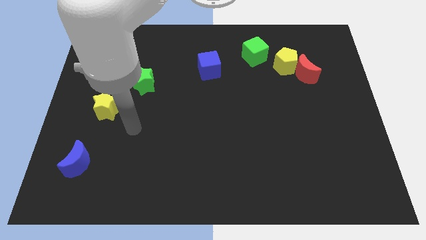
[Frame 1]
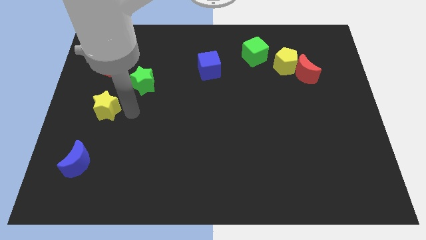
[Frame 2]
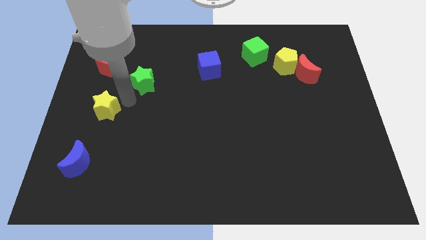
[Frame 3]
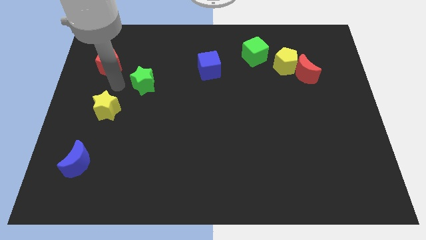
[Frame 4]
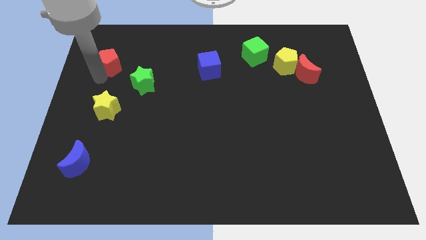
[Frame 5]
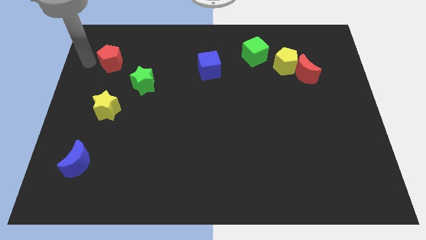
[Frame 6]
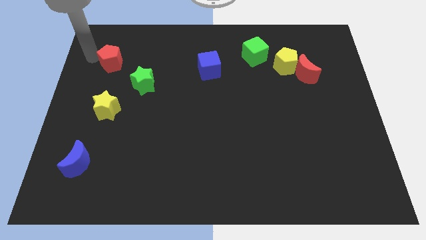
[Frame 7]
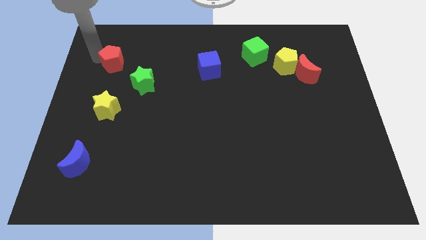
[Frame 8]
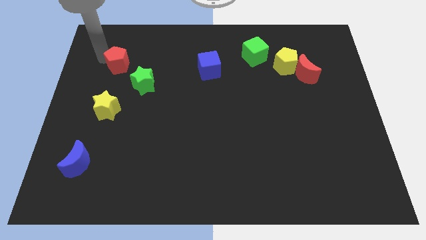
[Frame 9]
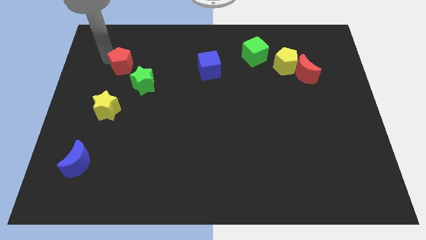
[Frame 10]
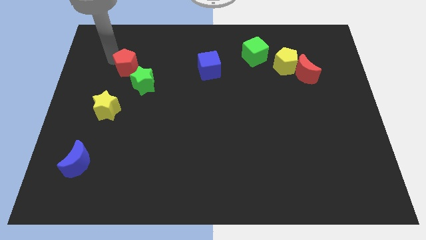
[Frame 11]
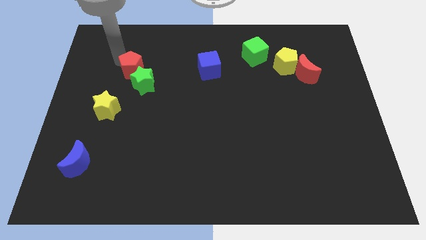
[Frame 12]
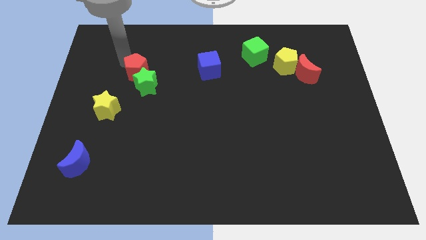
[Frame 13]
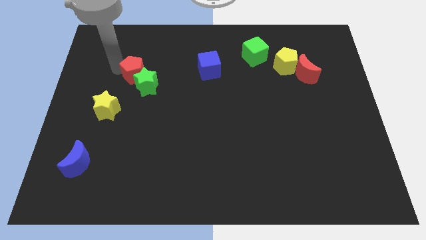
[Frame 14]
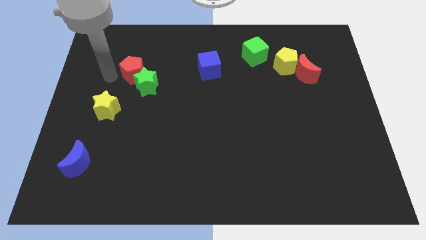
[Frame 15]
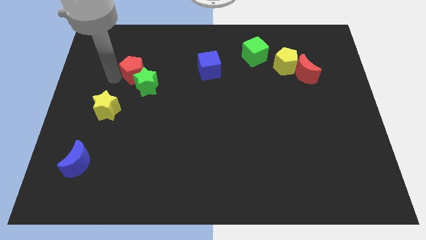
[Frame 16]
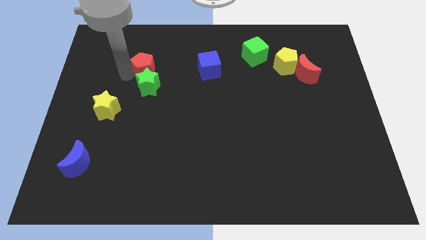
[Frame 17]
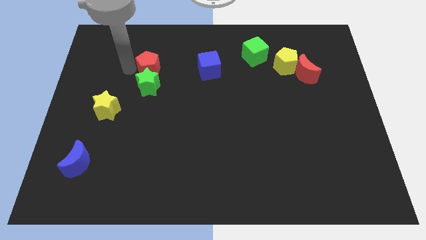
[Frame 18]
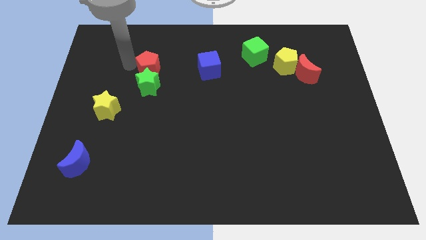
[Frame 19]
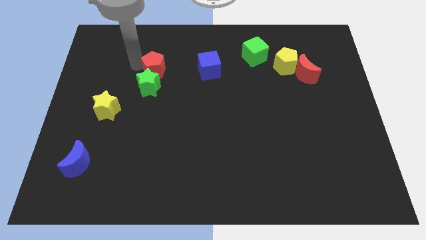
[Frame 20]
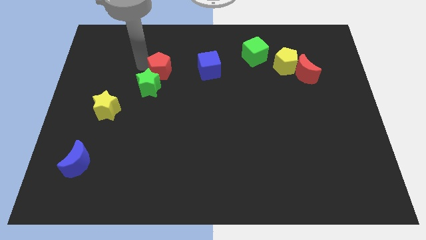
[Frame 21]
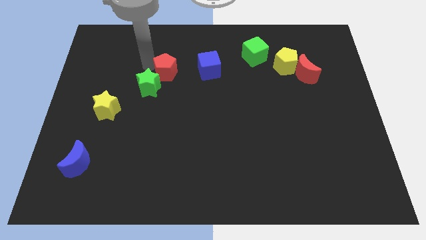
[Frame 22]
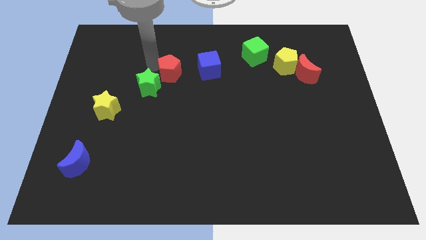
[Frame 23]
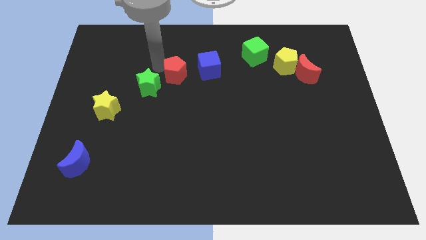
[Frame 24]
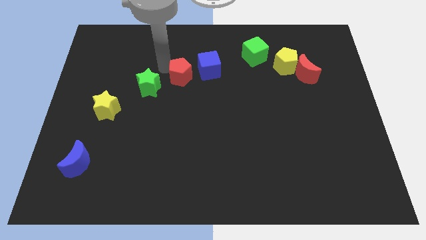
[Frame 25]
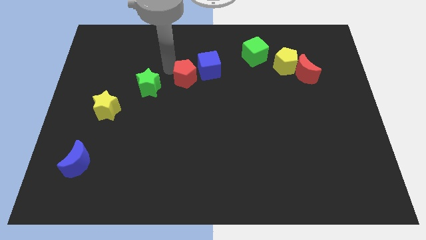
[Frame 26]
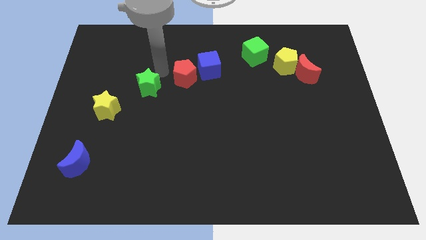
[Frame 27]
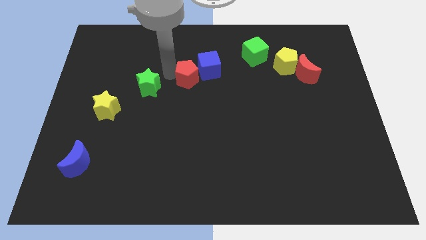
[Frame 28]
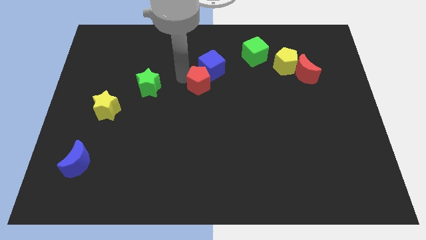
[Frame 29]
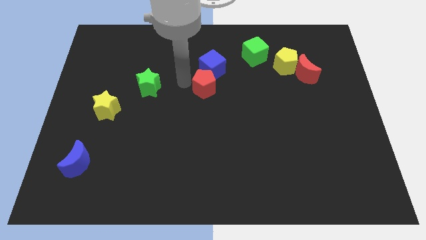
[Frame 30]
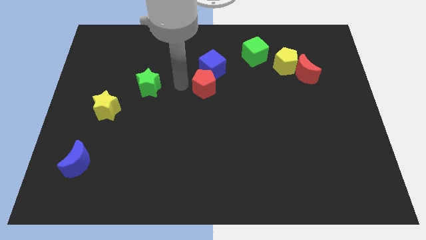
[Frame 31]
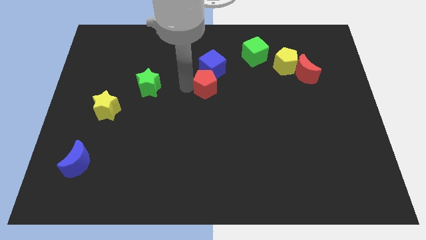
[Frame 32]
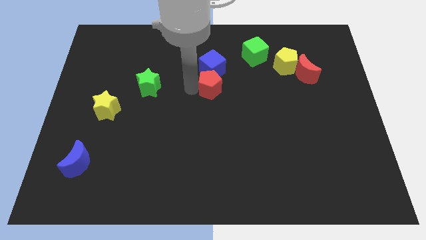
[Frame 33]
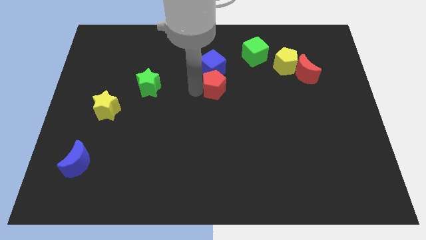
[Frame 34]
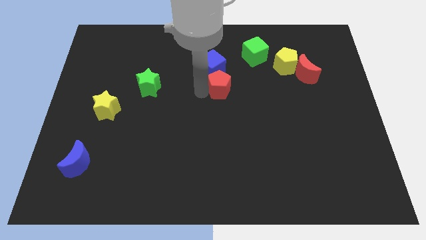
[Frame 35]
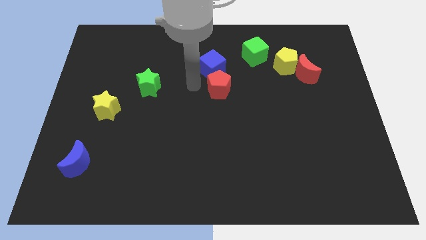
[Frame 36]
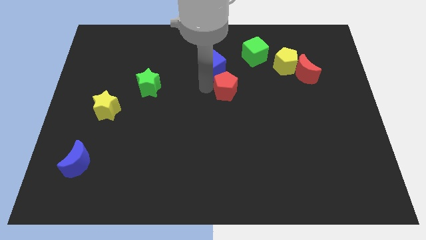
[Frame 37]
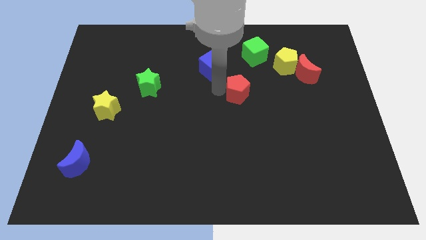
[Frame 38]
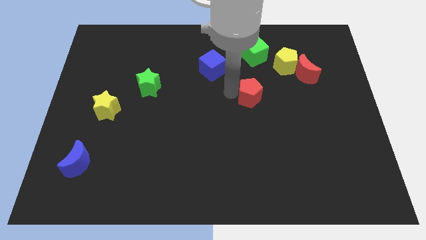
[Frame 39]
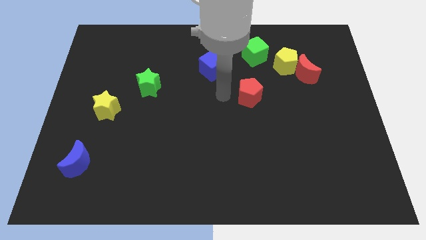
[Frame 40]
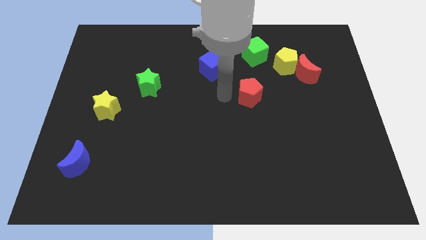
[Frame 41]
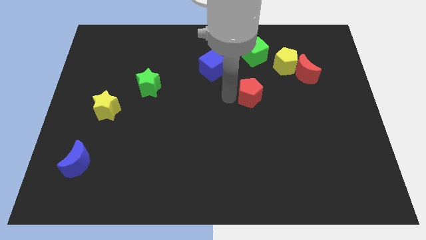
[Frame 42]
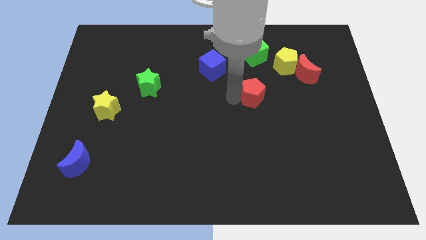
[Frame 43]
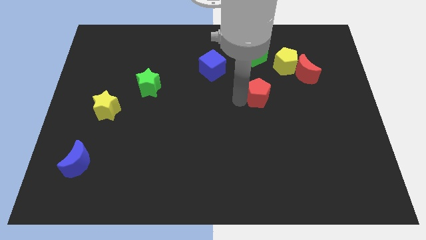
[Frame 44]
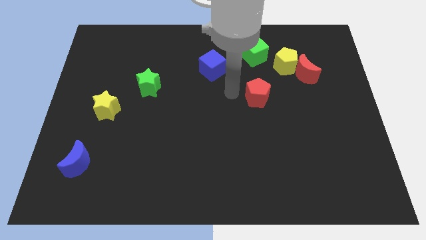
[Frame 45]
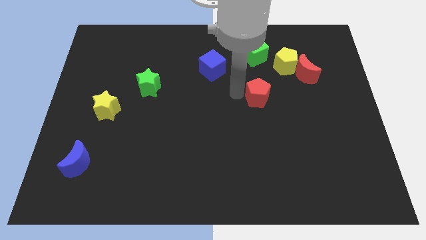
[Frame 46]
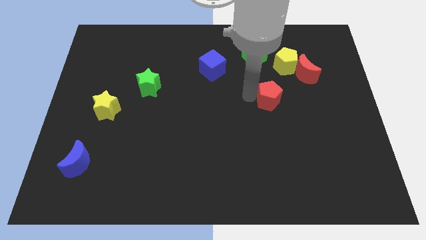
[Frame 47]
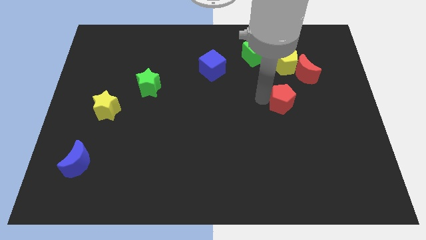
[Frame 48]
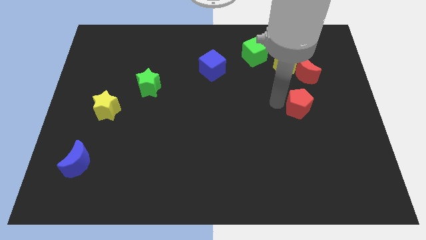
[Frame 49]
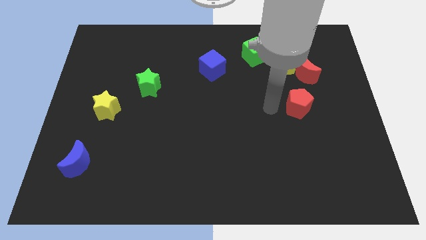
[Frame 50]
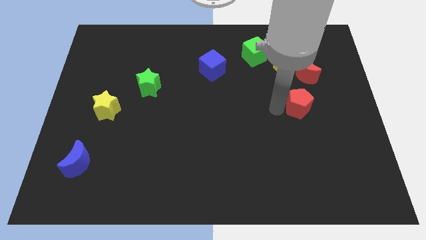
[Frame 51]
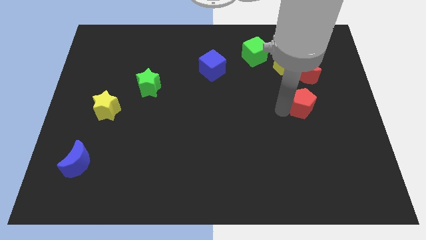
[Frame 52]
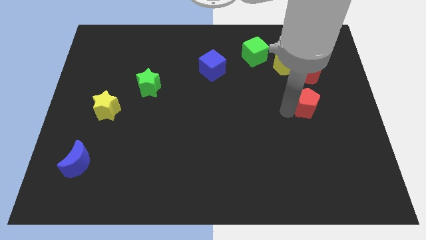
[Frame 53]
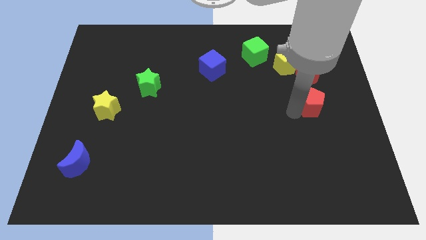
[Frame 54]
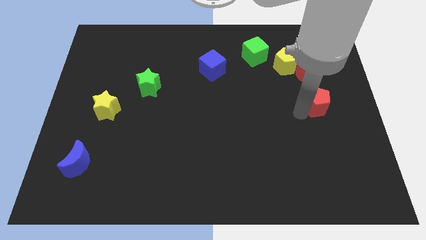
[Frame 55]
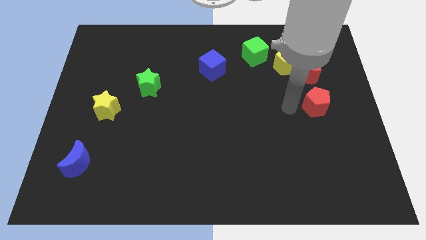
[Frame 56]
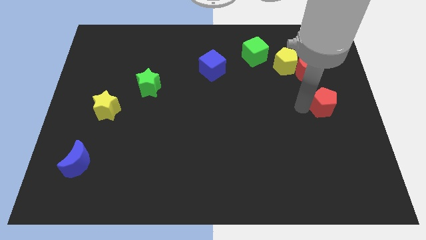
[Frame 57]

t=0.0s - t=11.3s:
slide the red pentagon to the right side
